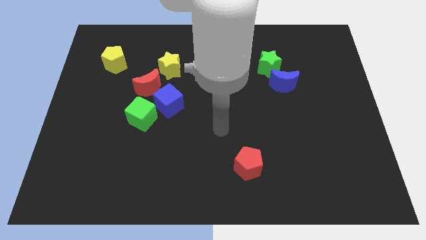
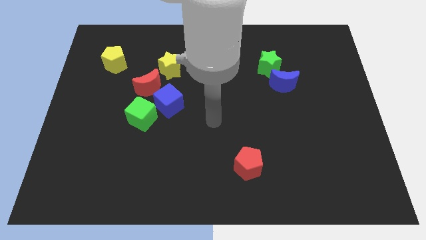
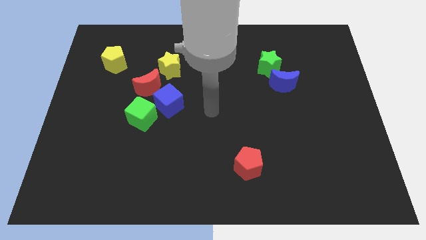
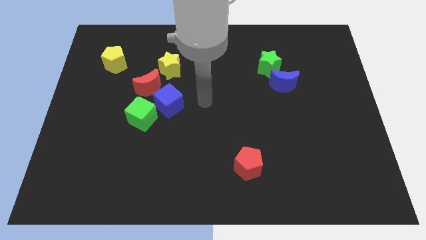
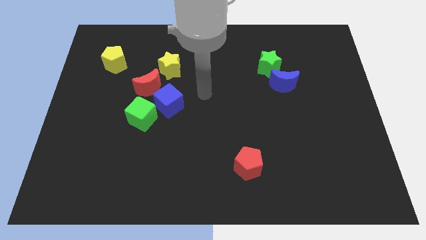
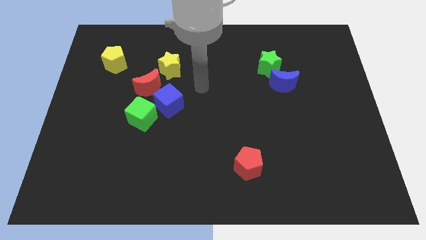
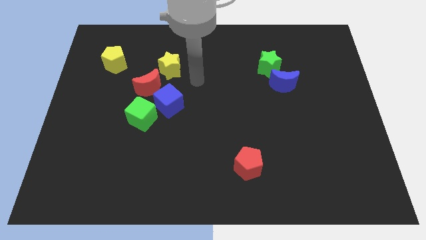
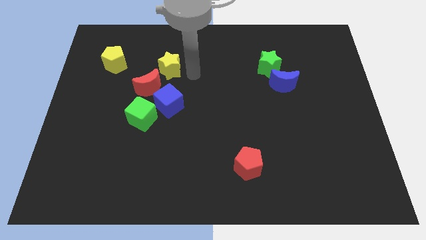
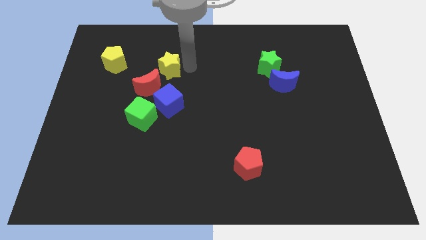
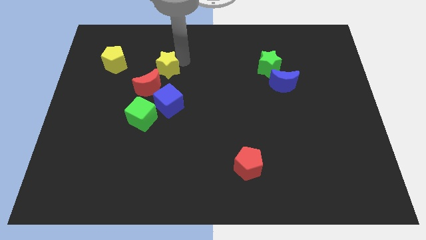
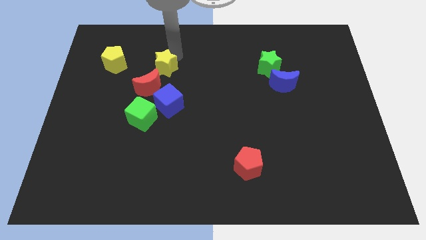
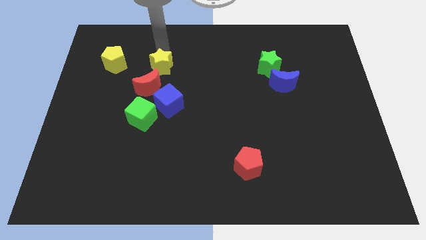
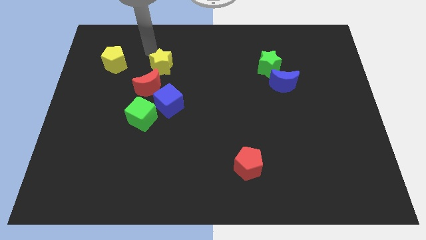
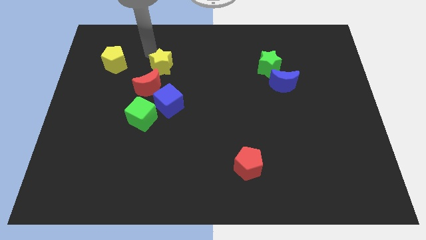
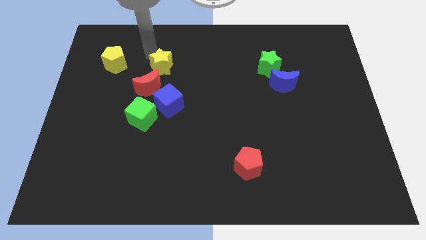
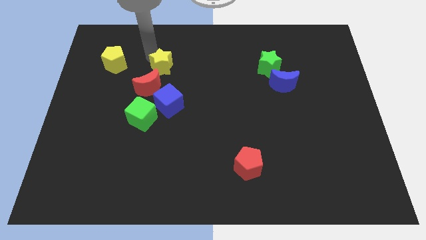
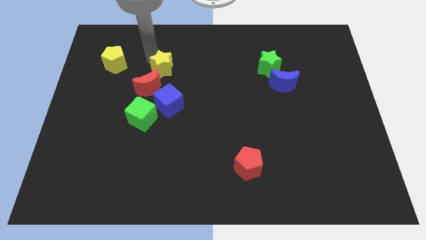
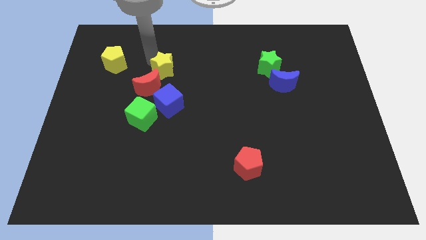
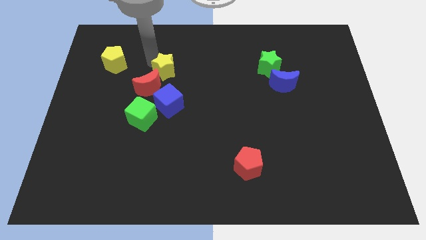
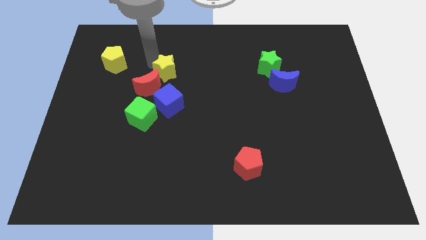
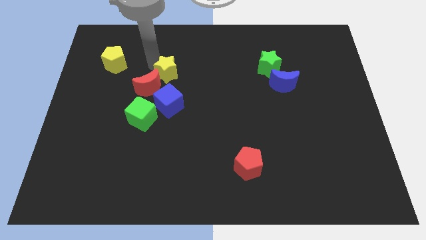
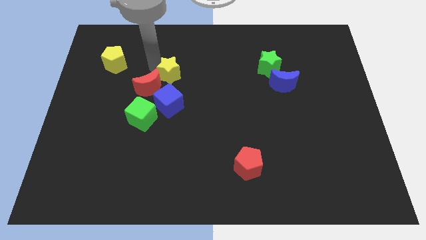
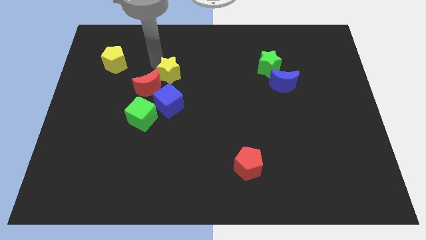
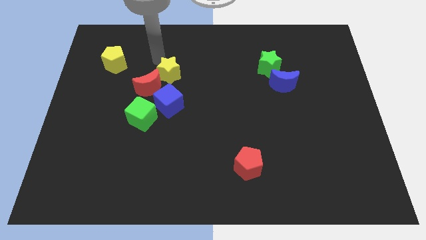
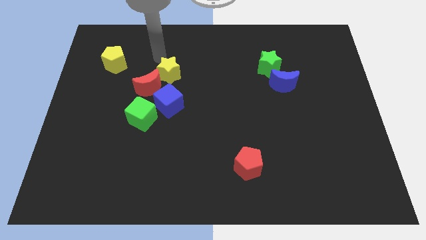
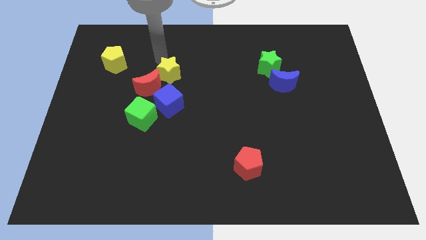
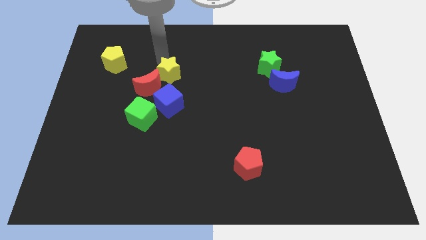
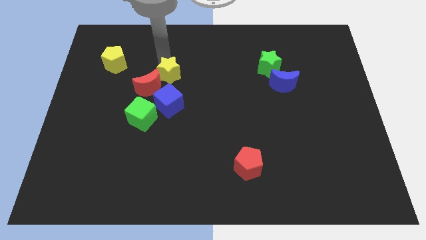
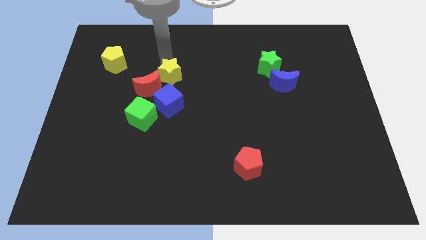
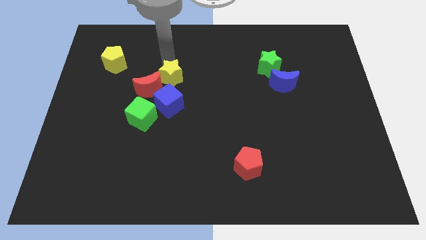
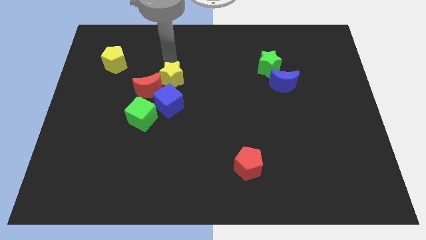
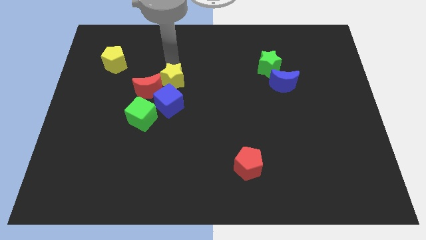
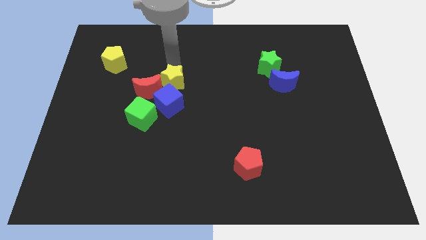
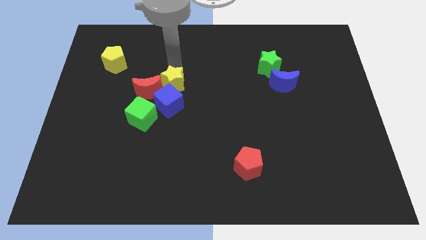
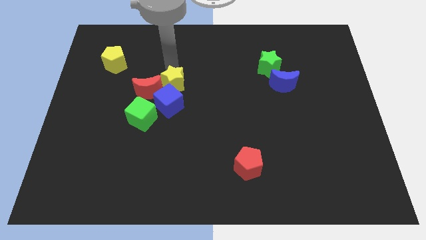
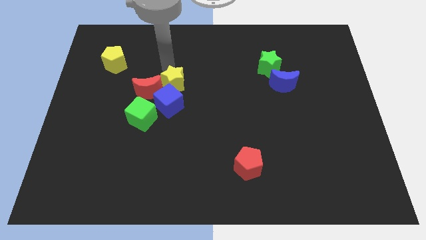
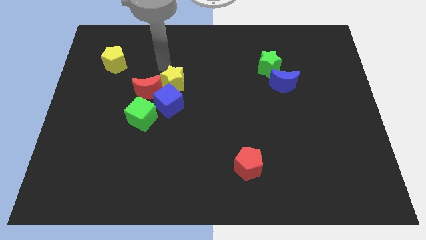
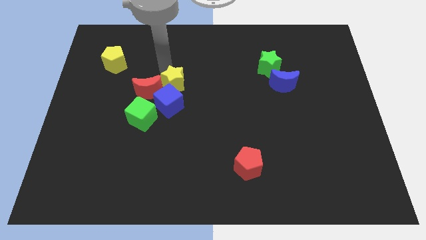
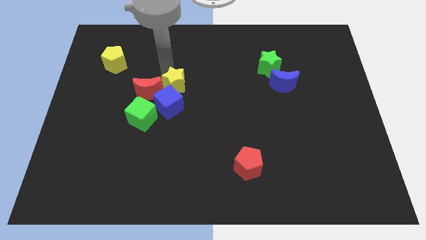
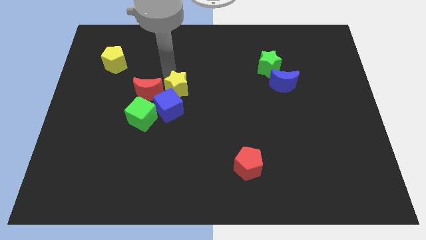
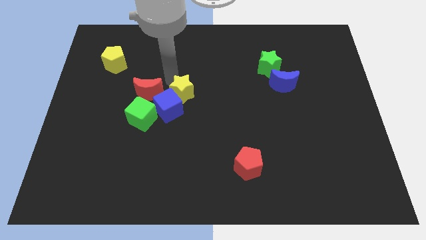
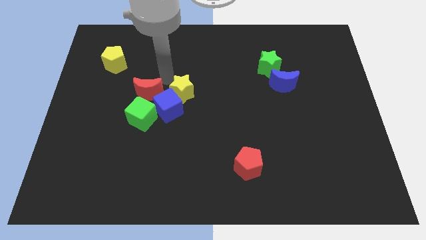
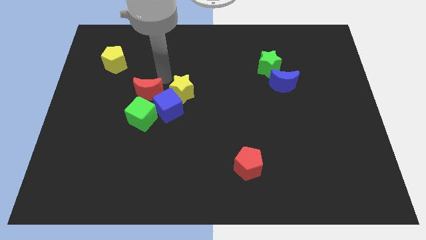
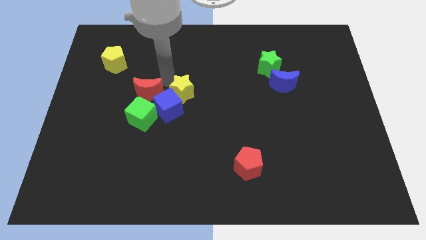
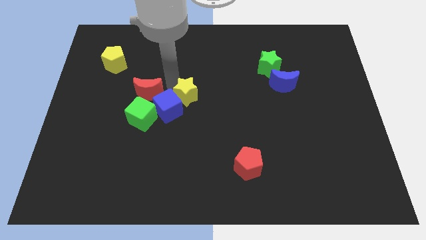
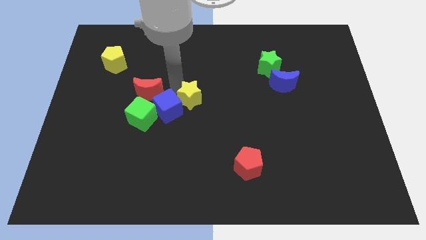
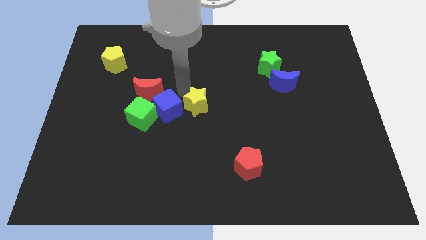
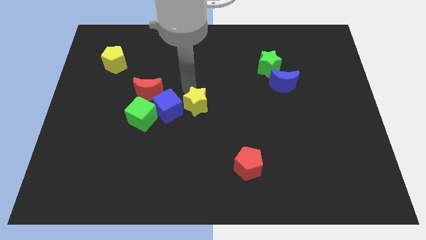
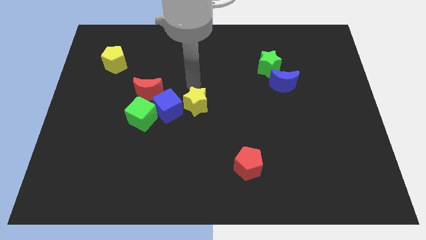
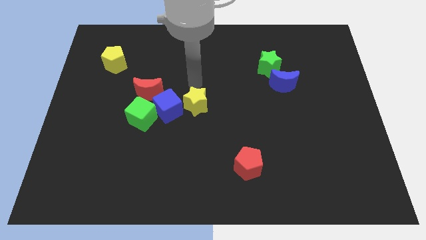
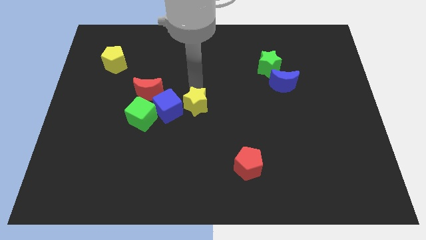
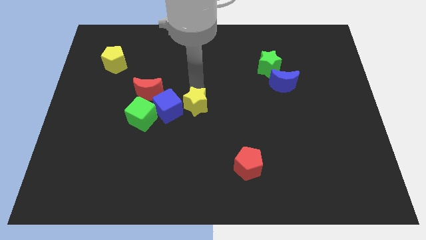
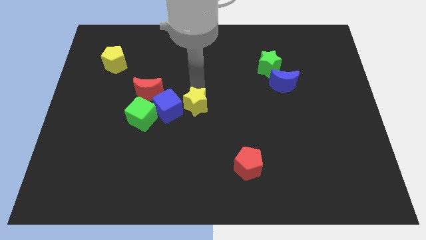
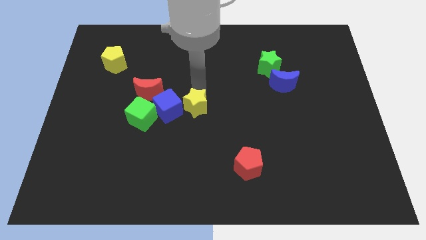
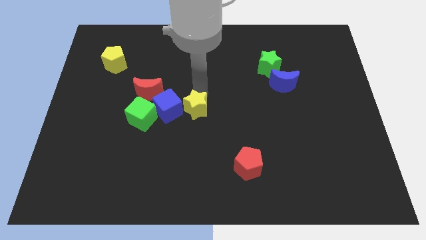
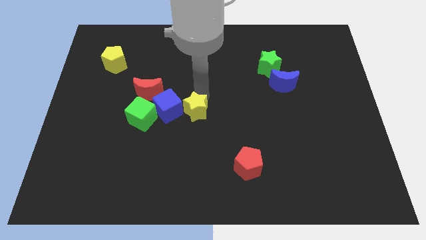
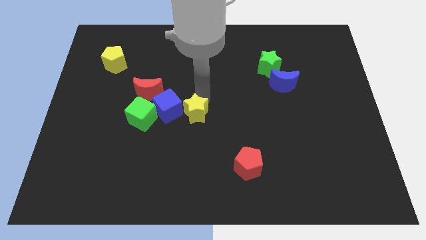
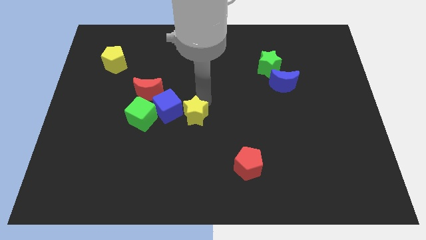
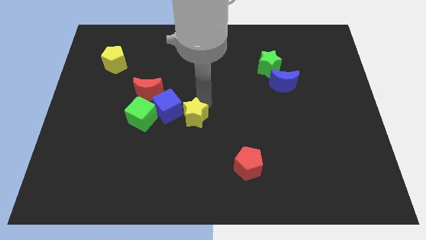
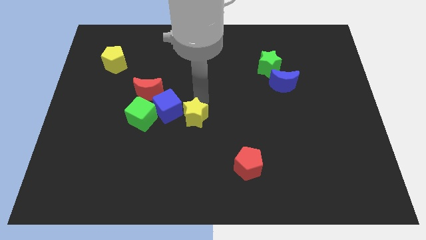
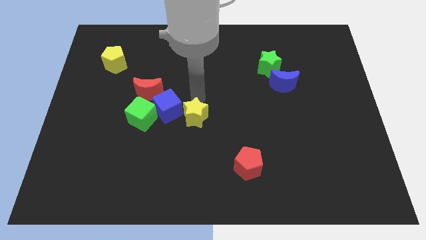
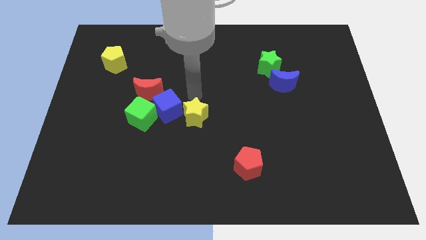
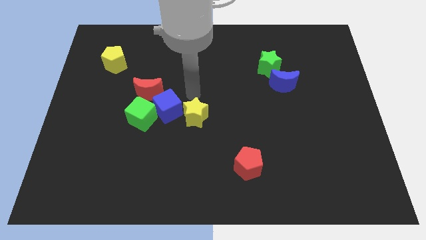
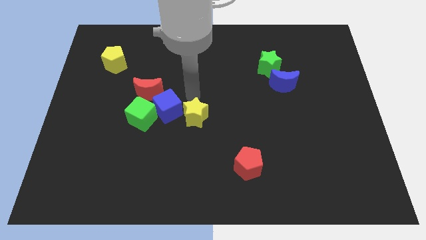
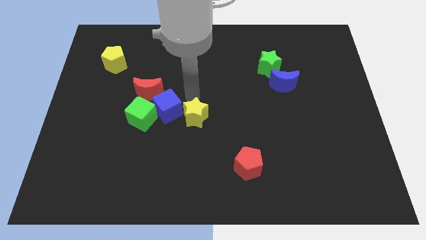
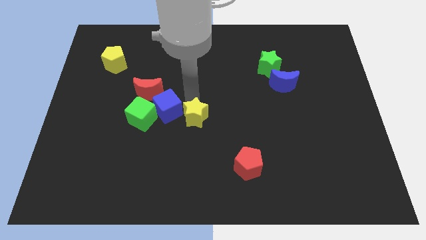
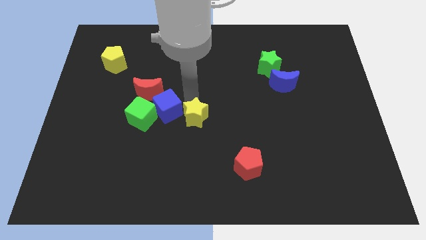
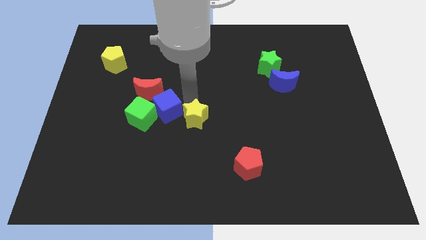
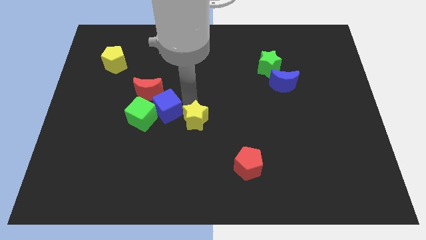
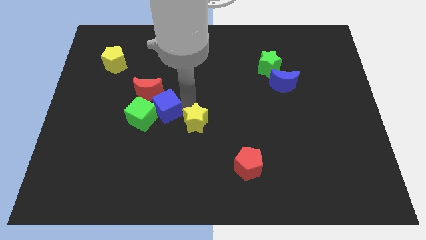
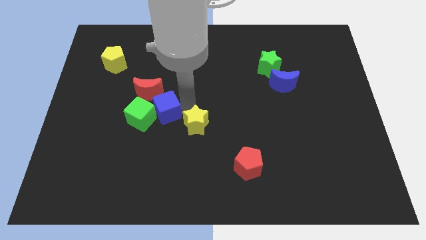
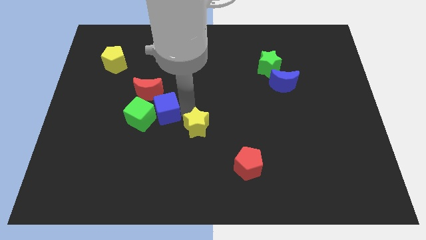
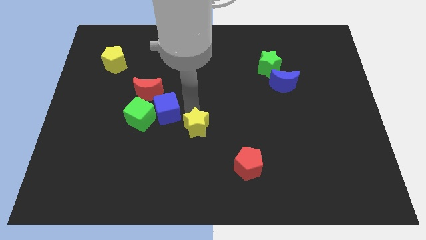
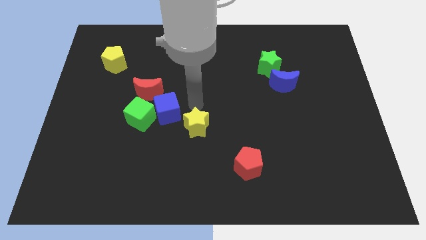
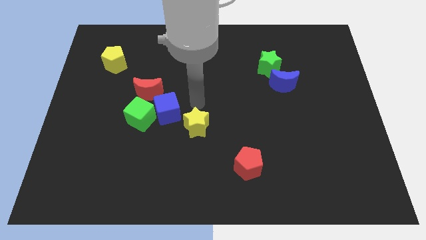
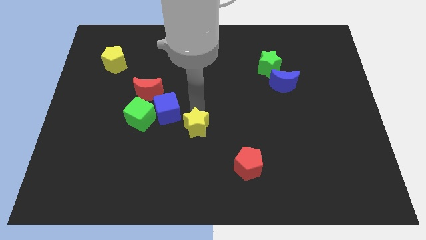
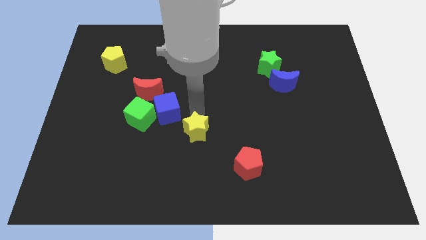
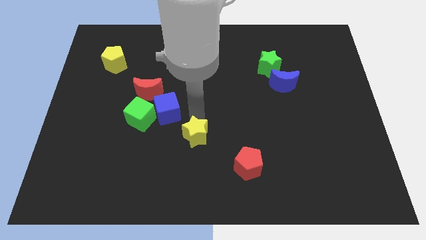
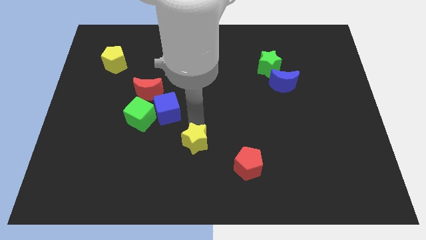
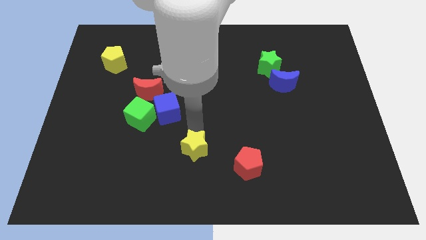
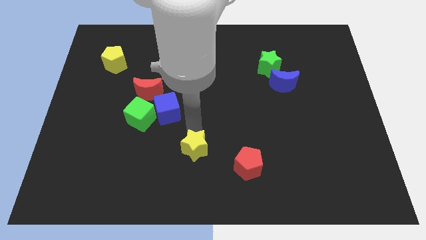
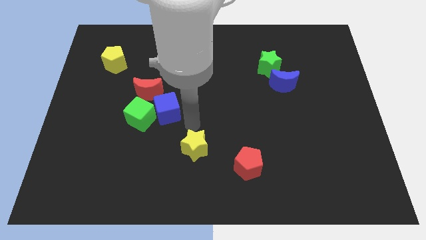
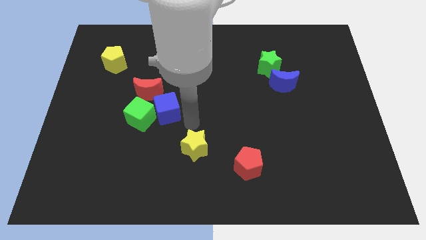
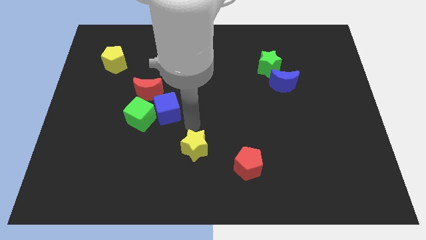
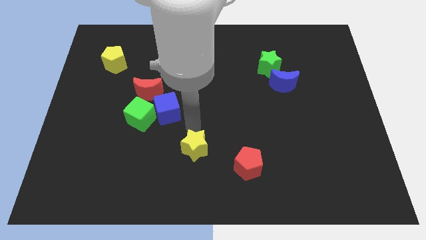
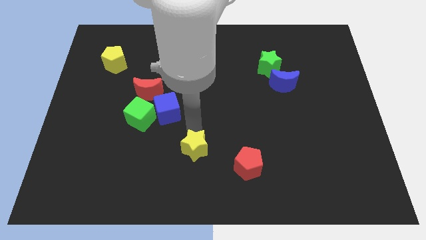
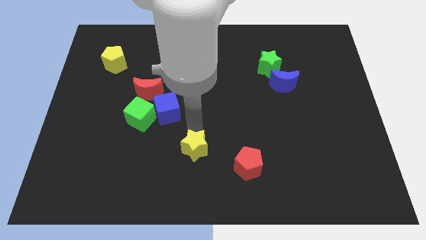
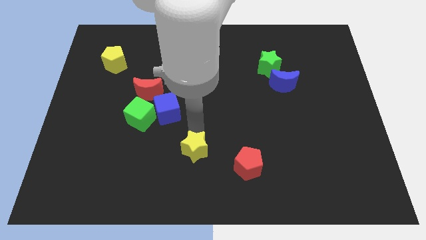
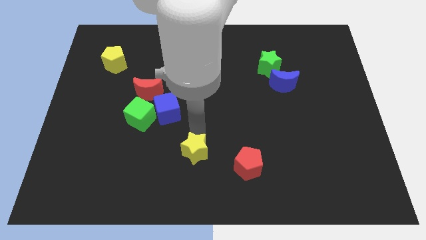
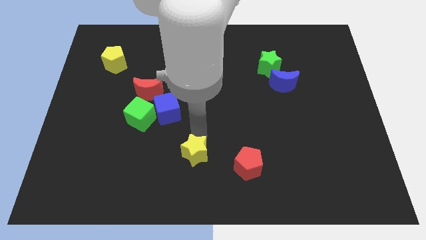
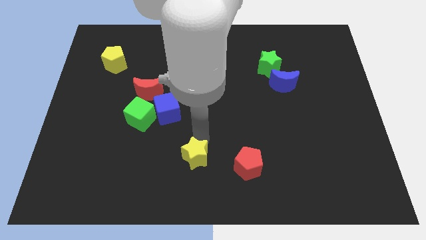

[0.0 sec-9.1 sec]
push the yellow star to the bottom side
